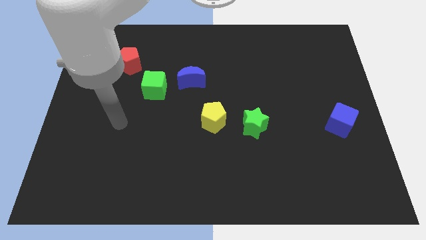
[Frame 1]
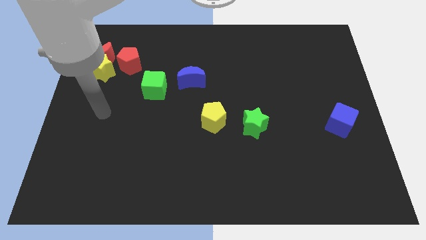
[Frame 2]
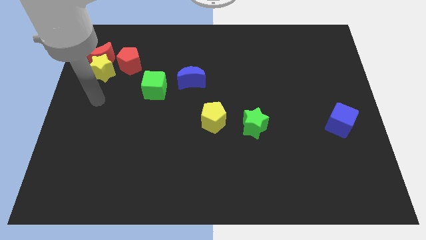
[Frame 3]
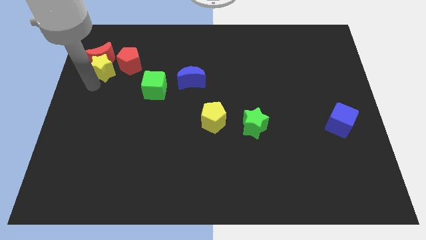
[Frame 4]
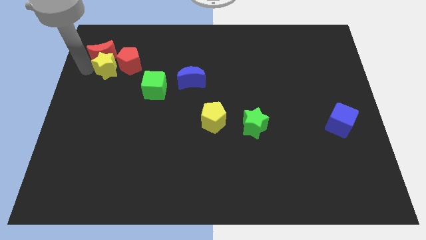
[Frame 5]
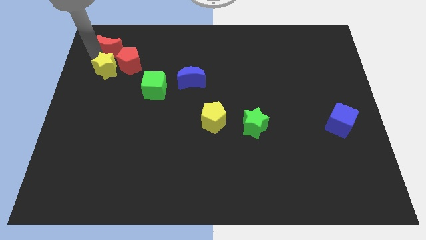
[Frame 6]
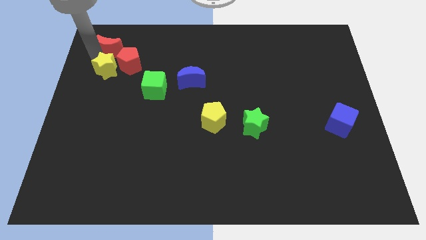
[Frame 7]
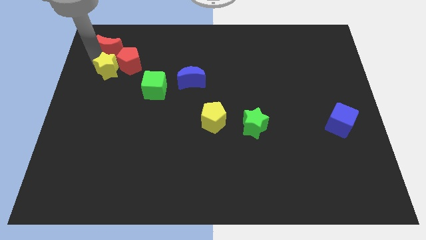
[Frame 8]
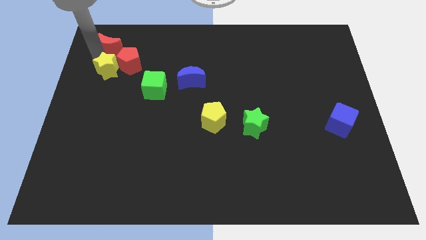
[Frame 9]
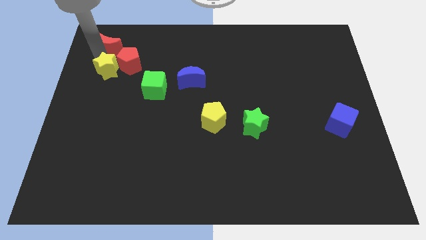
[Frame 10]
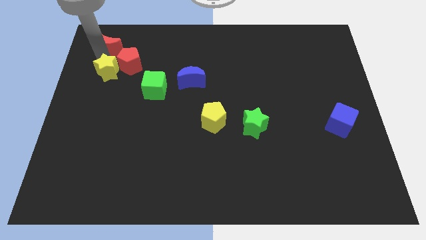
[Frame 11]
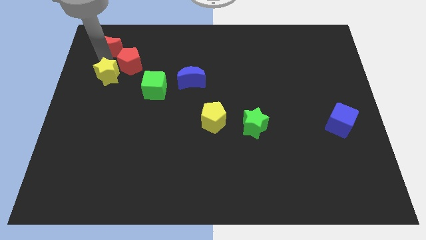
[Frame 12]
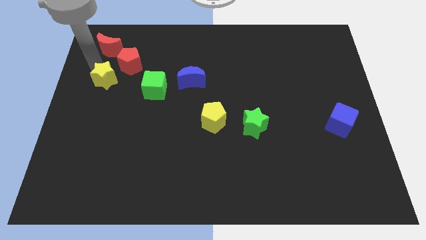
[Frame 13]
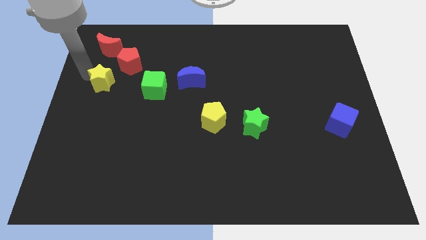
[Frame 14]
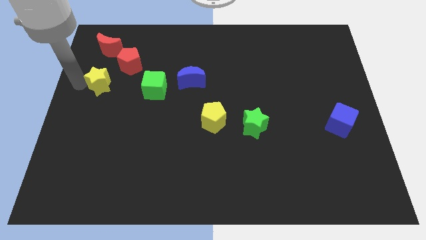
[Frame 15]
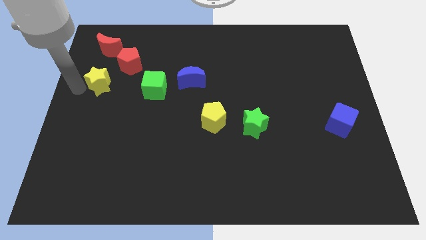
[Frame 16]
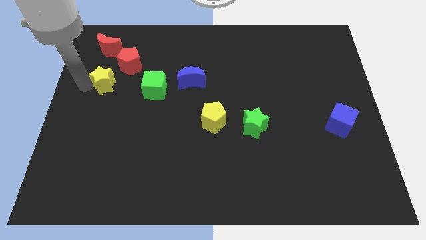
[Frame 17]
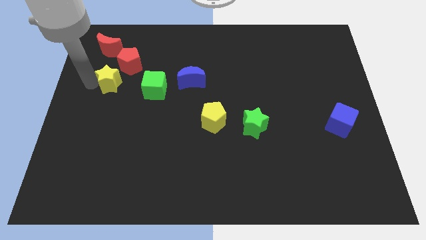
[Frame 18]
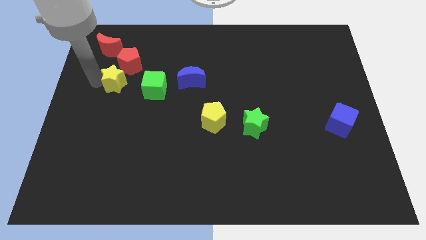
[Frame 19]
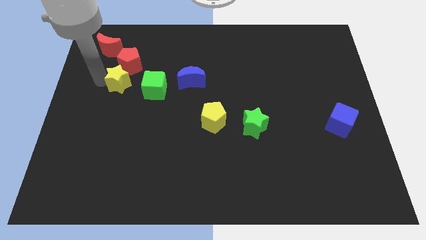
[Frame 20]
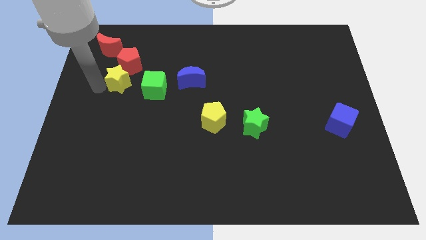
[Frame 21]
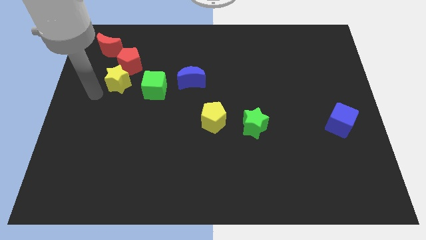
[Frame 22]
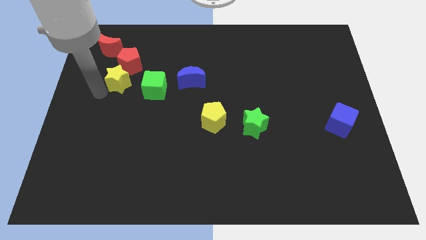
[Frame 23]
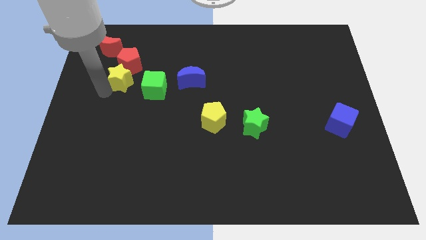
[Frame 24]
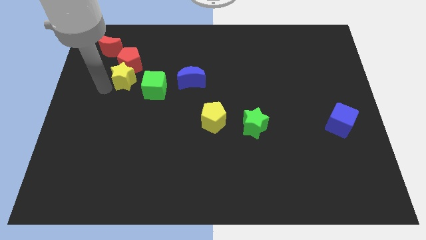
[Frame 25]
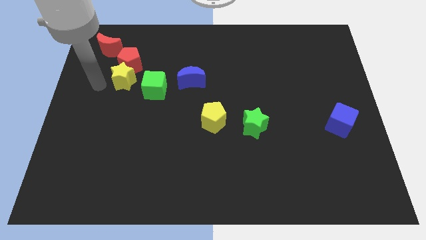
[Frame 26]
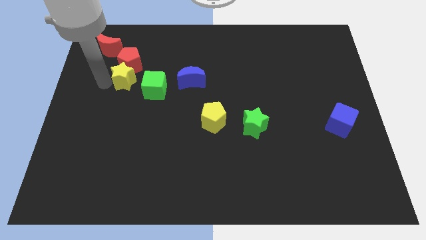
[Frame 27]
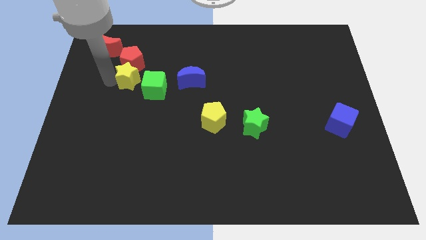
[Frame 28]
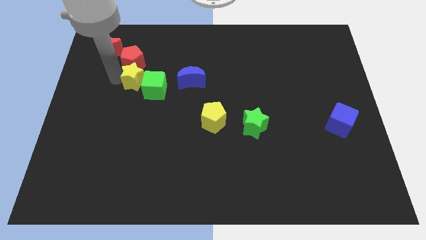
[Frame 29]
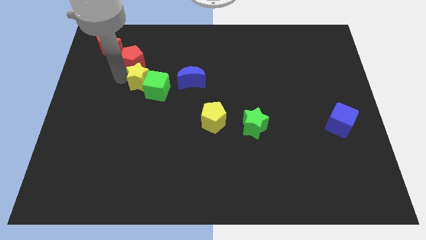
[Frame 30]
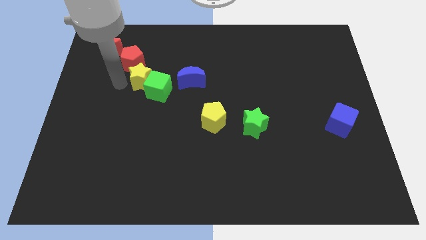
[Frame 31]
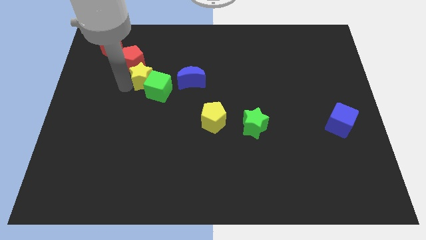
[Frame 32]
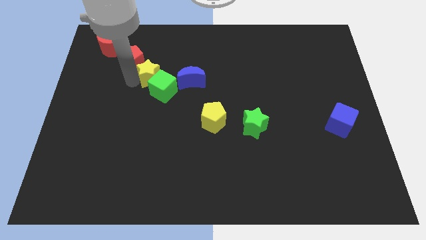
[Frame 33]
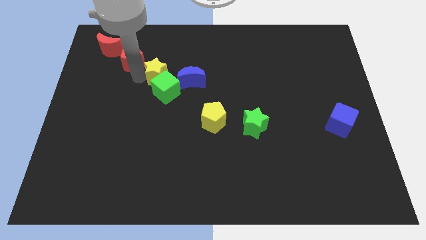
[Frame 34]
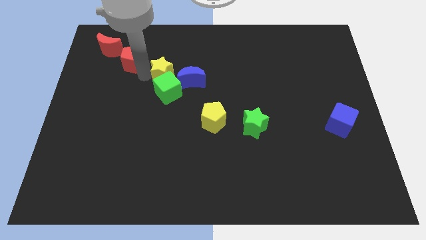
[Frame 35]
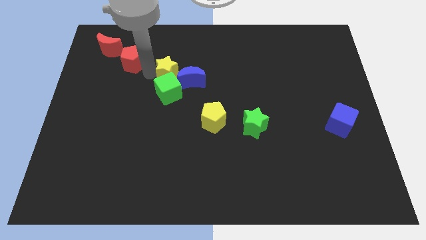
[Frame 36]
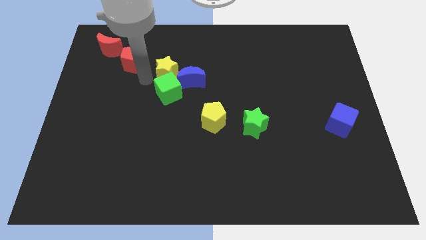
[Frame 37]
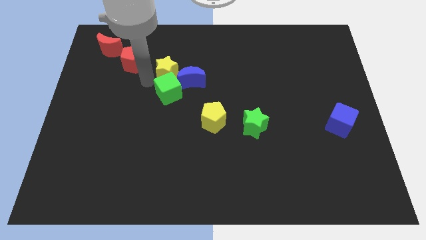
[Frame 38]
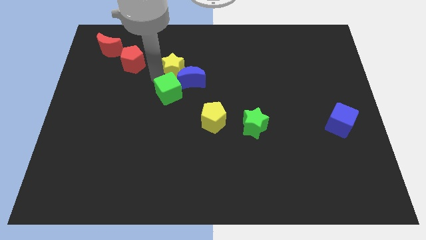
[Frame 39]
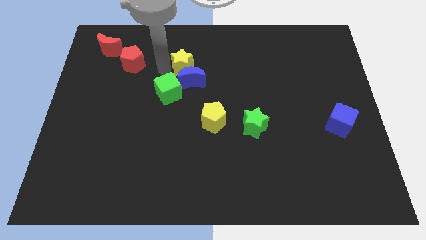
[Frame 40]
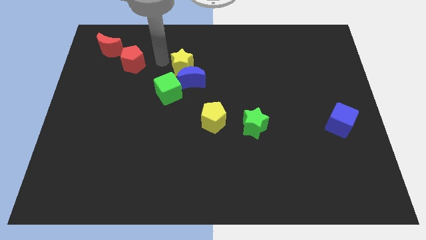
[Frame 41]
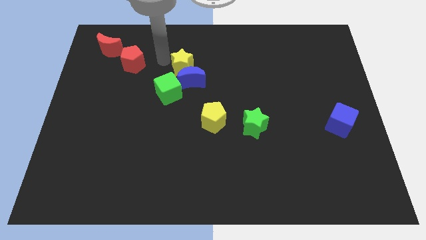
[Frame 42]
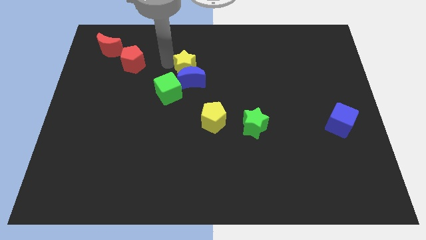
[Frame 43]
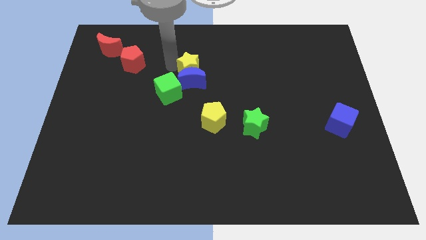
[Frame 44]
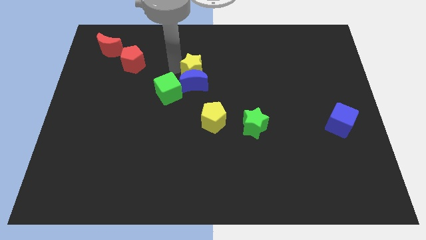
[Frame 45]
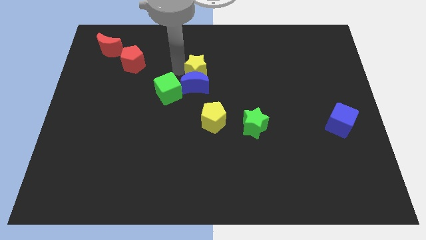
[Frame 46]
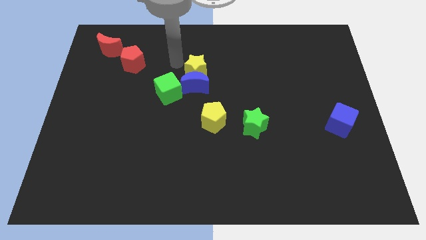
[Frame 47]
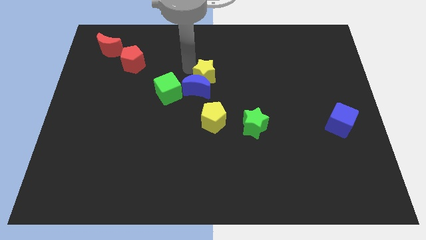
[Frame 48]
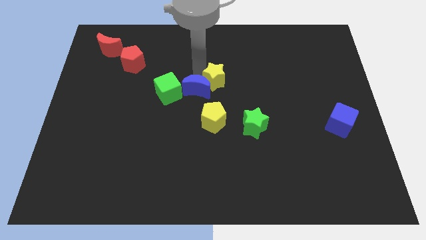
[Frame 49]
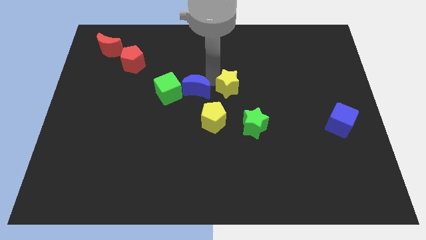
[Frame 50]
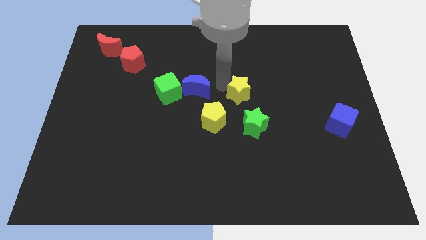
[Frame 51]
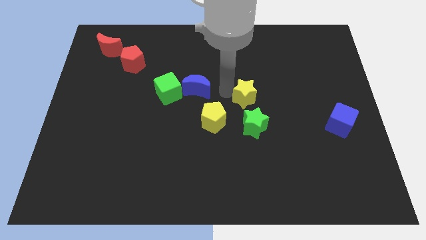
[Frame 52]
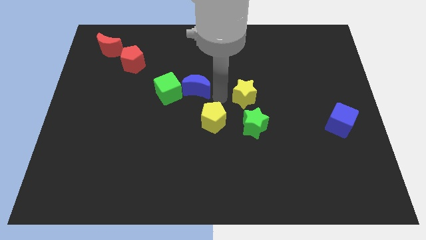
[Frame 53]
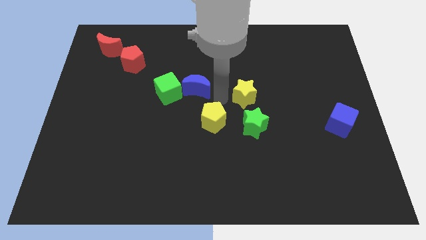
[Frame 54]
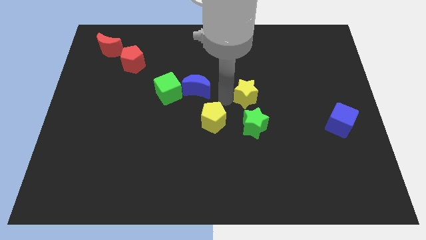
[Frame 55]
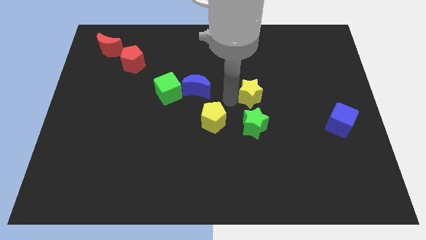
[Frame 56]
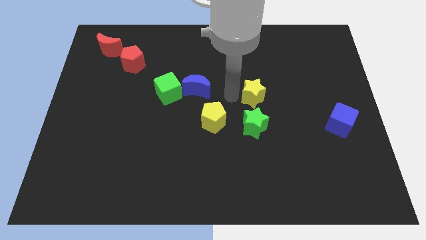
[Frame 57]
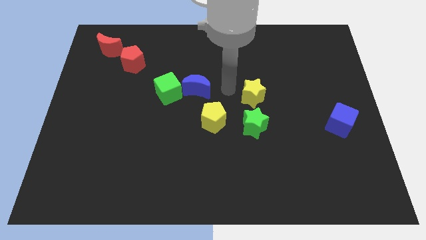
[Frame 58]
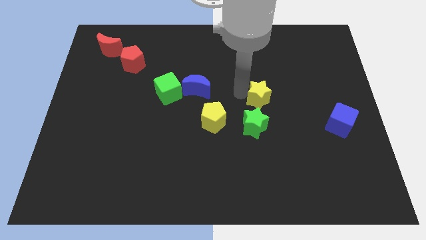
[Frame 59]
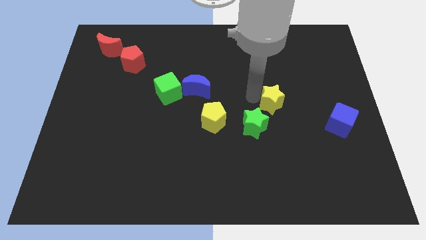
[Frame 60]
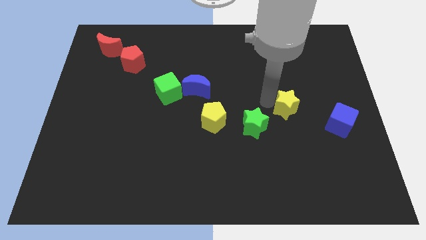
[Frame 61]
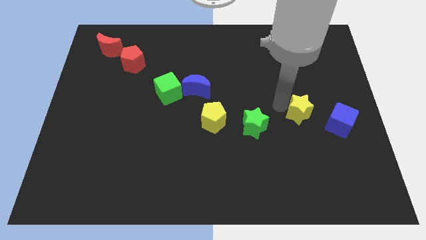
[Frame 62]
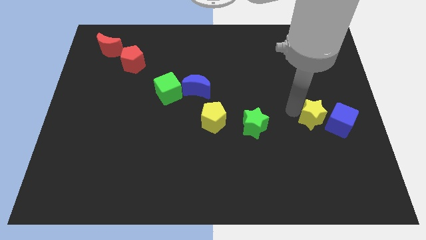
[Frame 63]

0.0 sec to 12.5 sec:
slide the yellow star close to the blue cube
